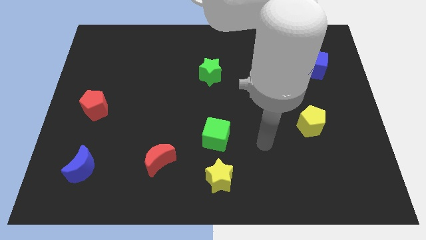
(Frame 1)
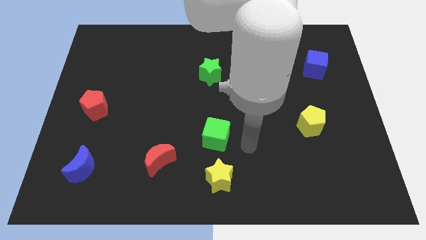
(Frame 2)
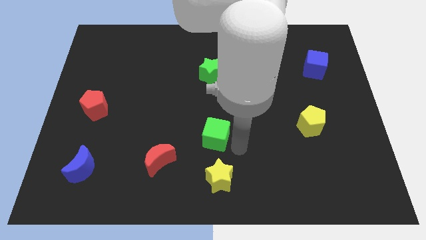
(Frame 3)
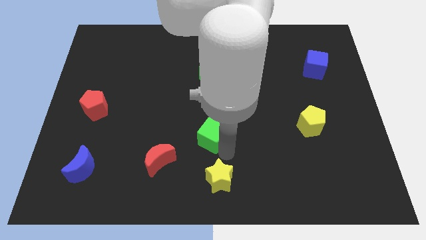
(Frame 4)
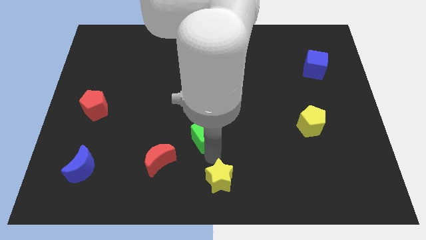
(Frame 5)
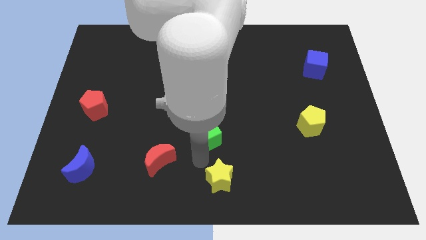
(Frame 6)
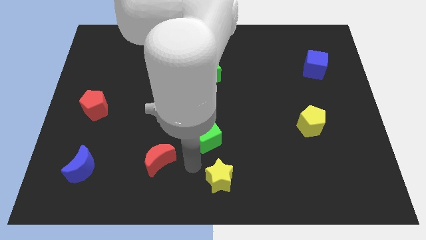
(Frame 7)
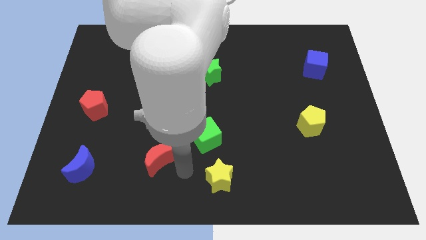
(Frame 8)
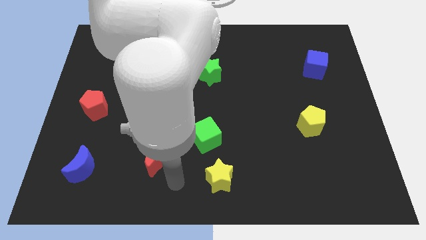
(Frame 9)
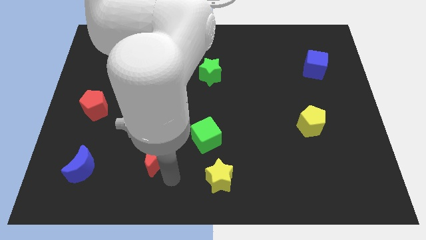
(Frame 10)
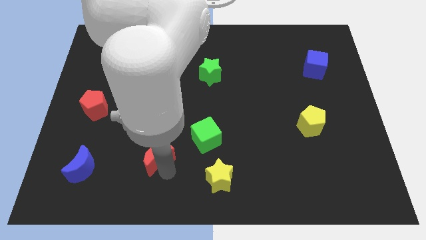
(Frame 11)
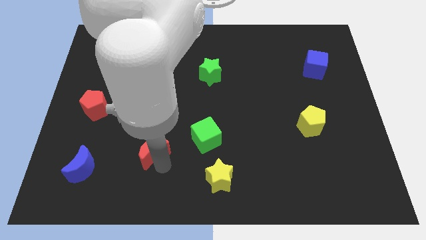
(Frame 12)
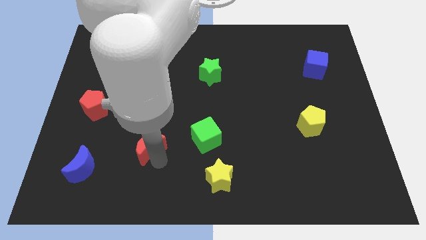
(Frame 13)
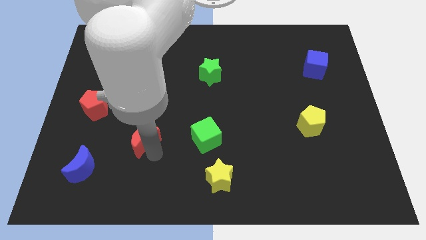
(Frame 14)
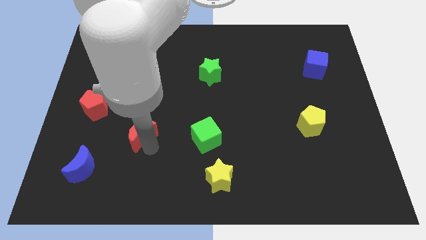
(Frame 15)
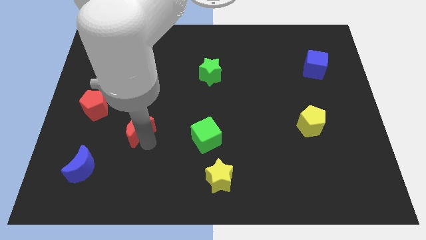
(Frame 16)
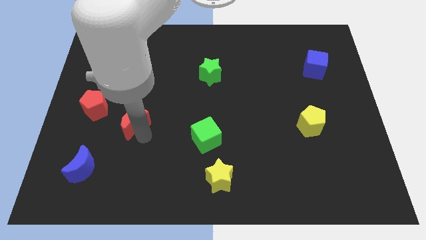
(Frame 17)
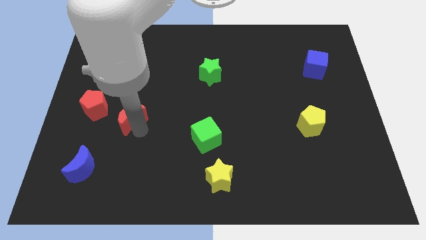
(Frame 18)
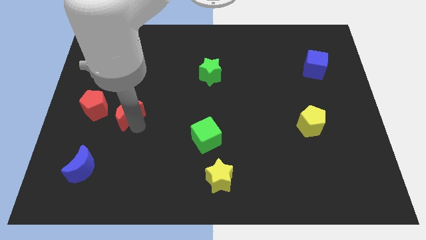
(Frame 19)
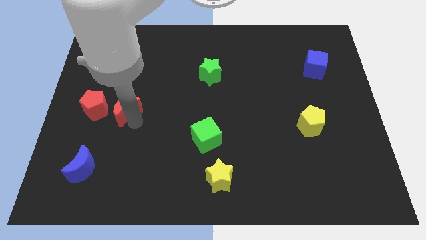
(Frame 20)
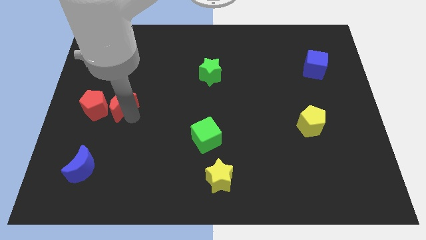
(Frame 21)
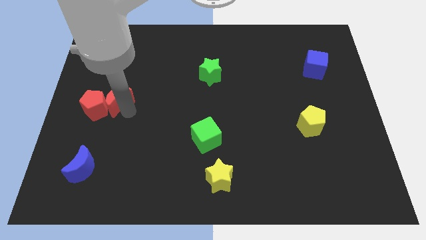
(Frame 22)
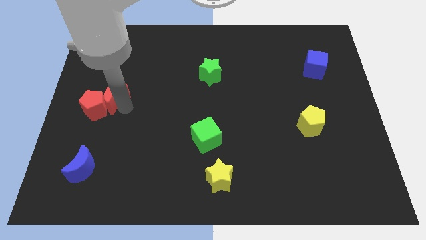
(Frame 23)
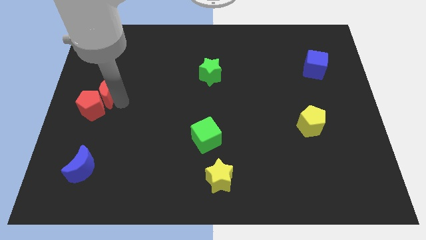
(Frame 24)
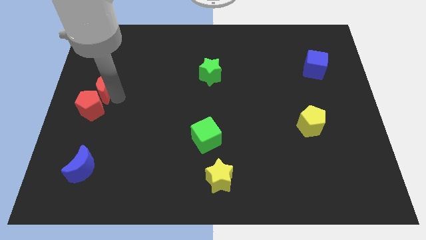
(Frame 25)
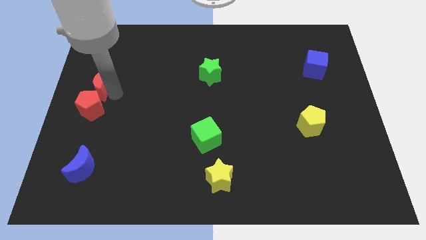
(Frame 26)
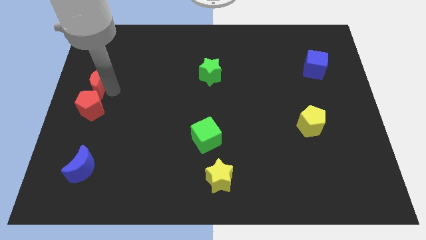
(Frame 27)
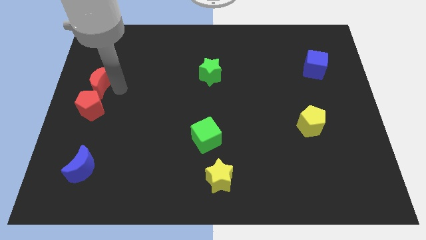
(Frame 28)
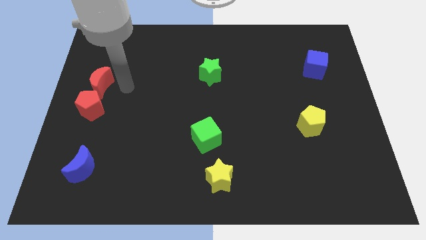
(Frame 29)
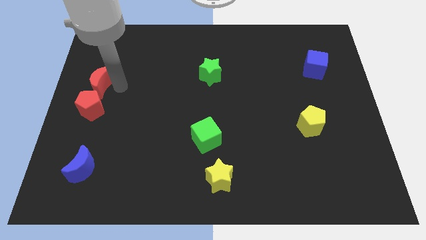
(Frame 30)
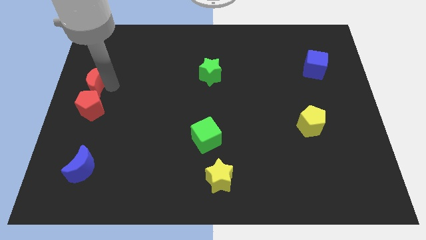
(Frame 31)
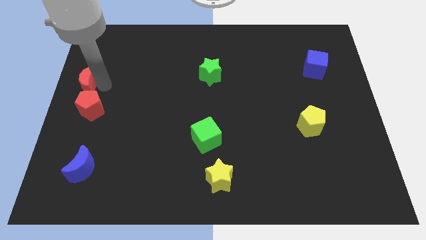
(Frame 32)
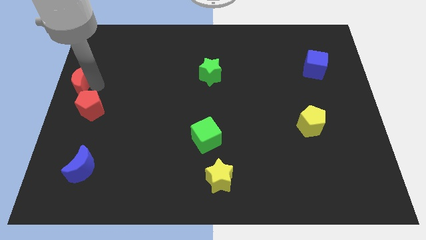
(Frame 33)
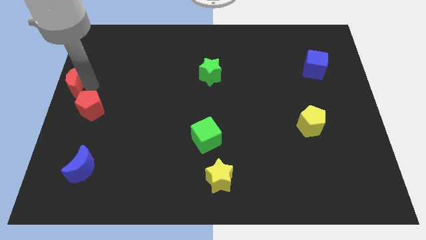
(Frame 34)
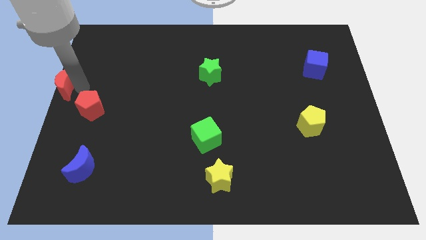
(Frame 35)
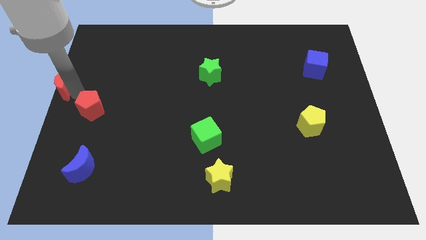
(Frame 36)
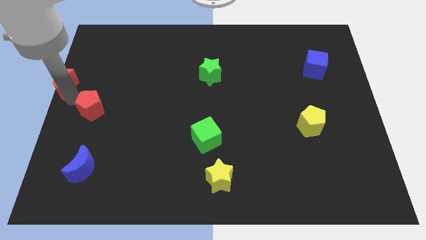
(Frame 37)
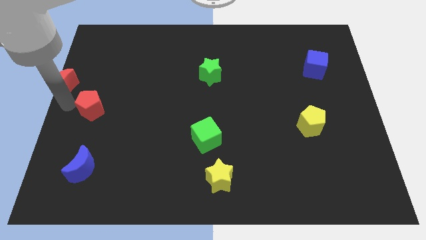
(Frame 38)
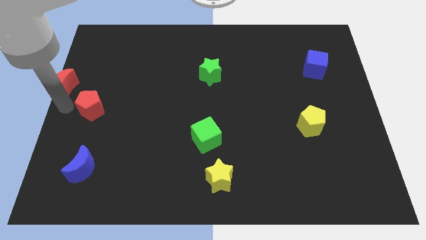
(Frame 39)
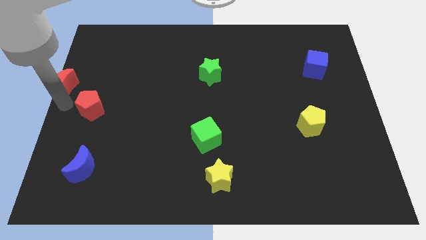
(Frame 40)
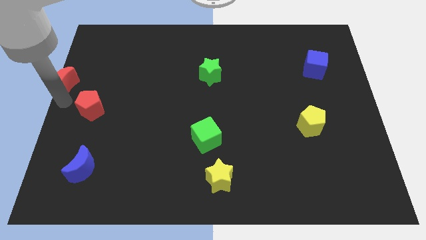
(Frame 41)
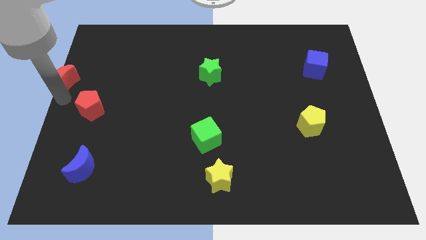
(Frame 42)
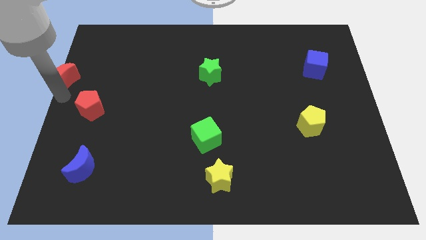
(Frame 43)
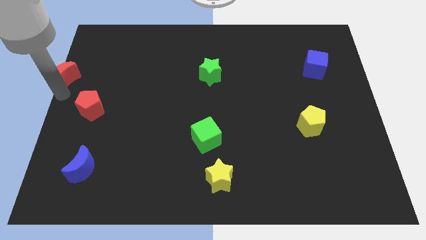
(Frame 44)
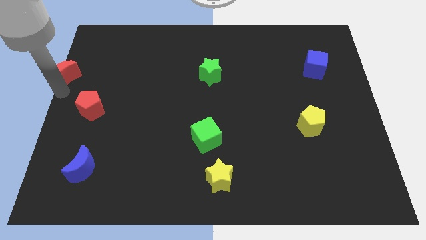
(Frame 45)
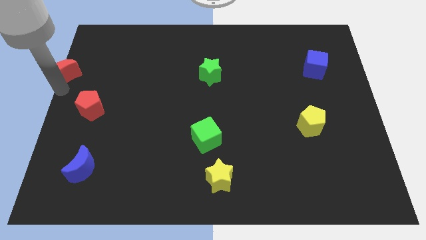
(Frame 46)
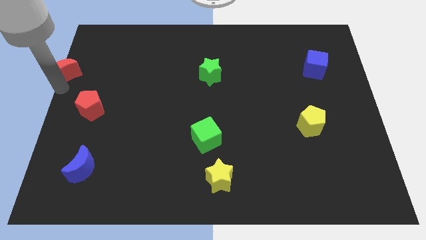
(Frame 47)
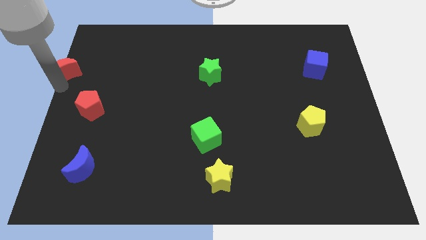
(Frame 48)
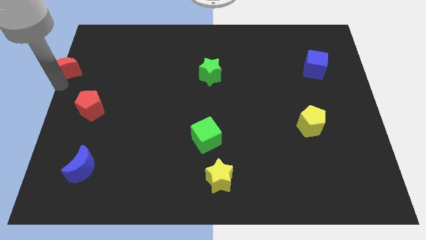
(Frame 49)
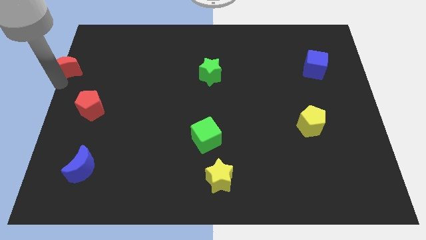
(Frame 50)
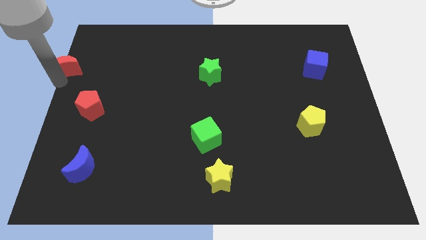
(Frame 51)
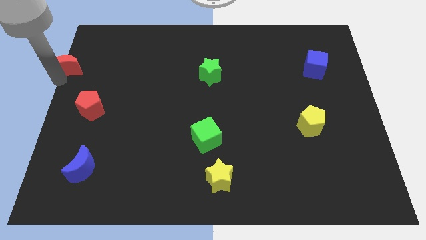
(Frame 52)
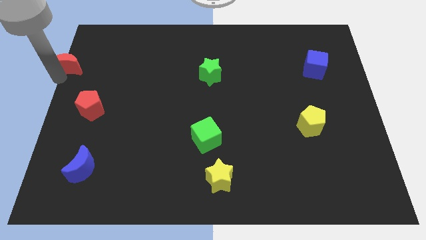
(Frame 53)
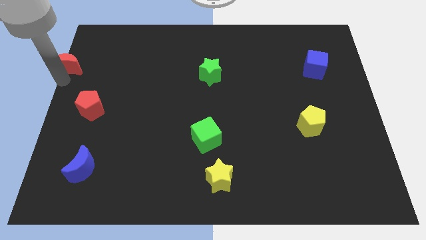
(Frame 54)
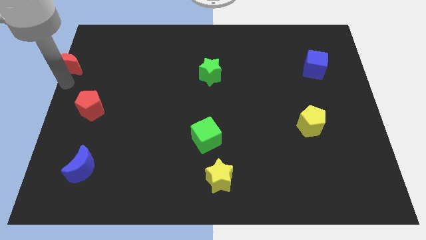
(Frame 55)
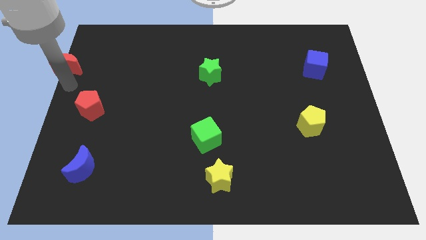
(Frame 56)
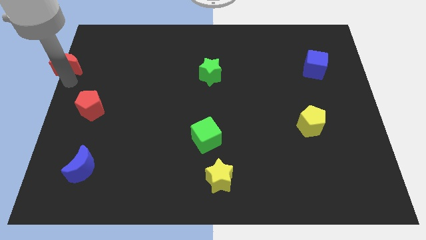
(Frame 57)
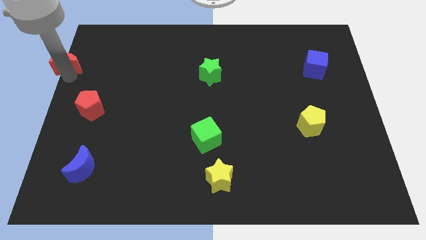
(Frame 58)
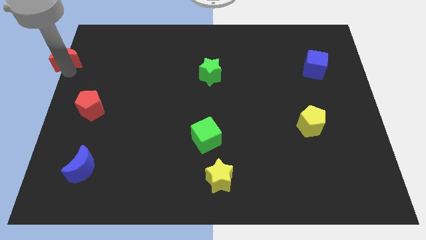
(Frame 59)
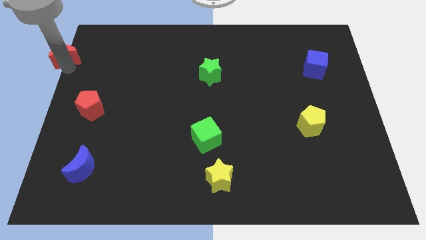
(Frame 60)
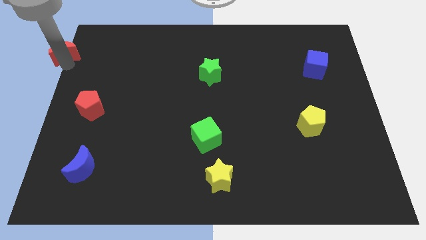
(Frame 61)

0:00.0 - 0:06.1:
put the red moon to the top left

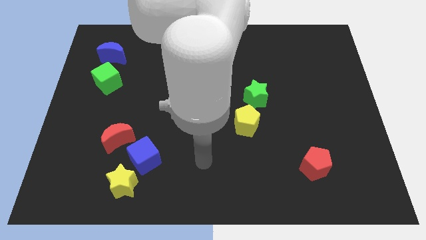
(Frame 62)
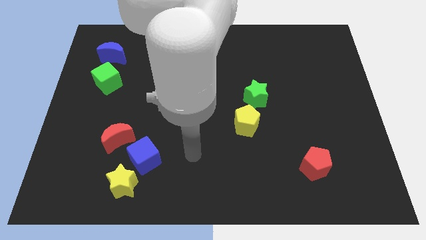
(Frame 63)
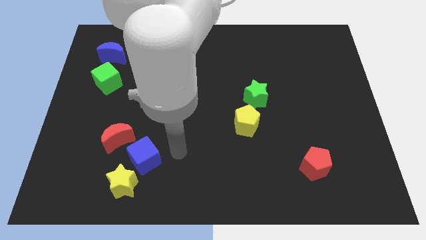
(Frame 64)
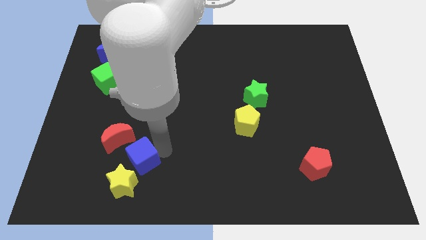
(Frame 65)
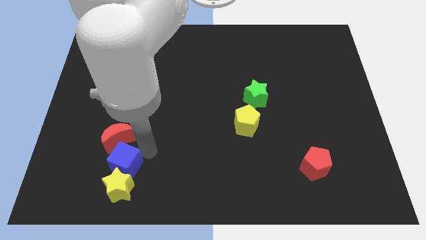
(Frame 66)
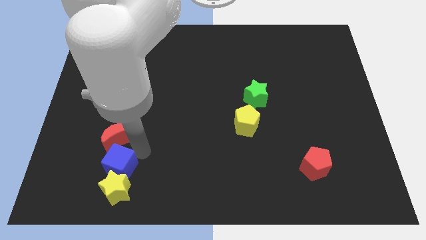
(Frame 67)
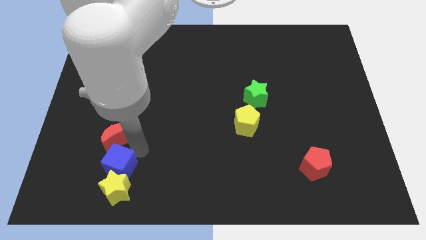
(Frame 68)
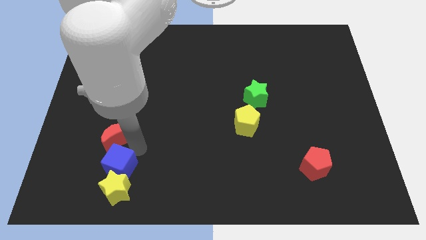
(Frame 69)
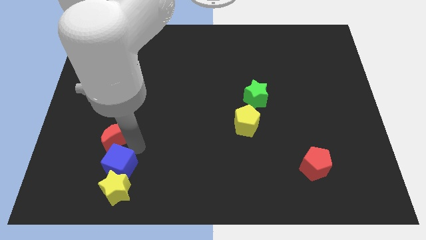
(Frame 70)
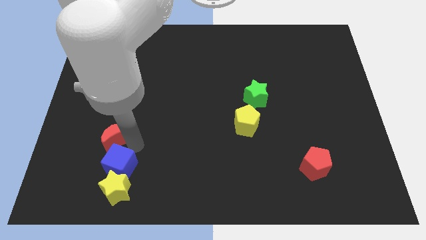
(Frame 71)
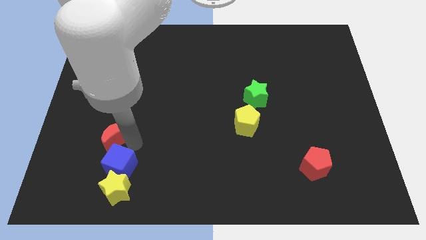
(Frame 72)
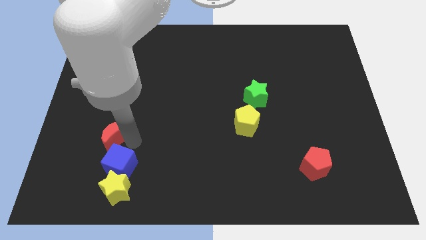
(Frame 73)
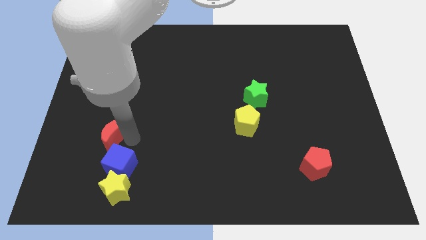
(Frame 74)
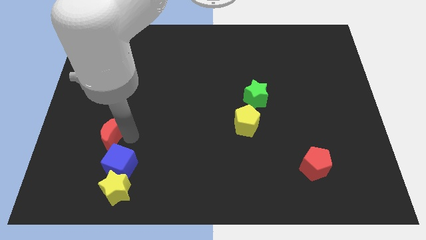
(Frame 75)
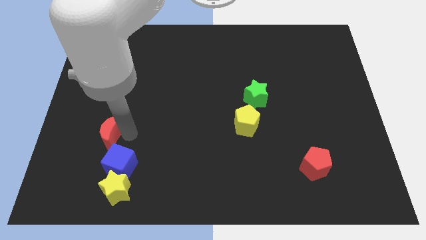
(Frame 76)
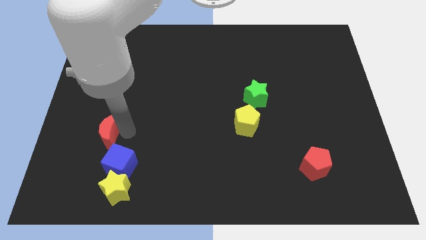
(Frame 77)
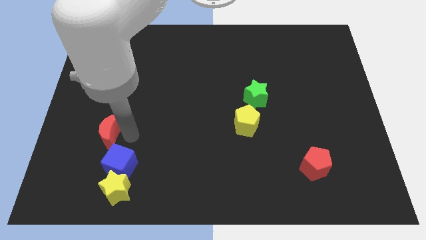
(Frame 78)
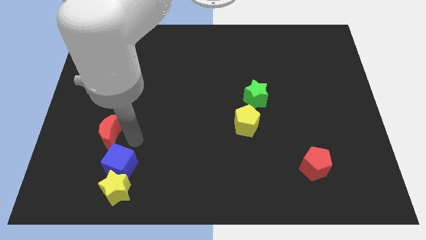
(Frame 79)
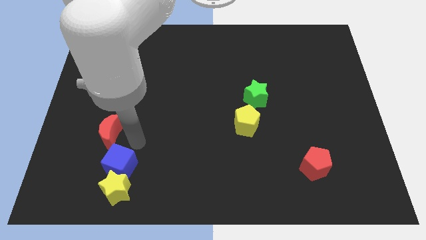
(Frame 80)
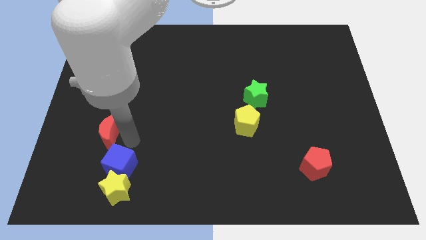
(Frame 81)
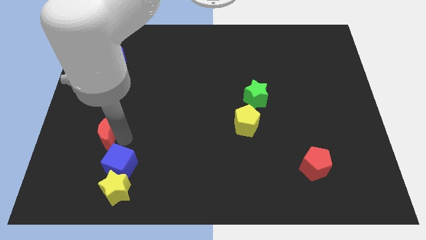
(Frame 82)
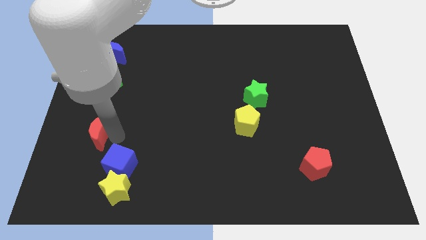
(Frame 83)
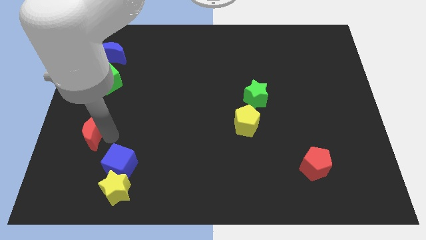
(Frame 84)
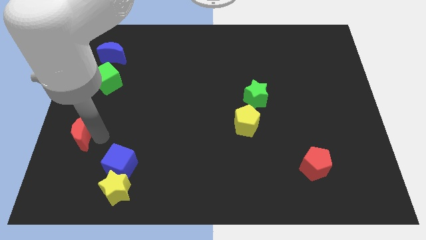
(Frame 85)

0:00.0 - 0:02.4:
move the red moon to the left side of the board
